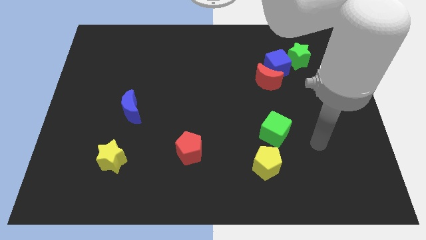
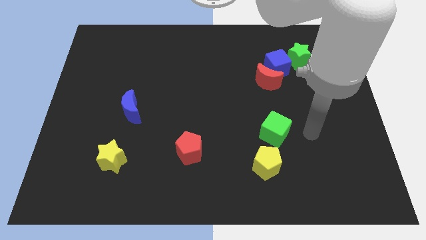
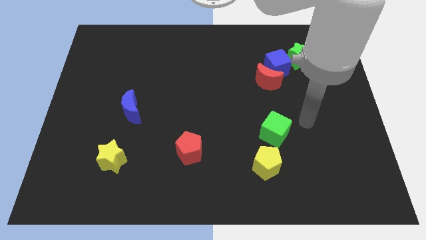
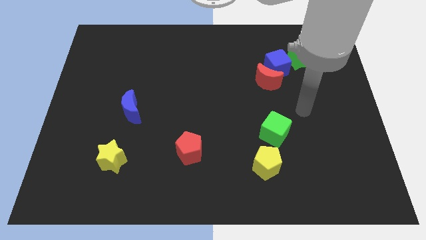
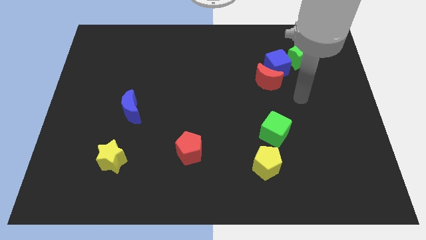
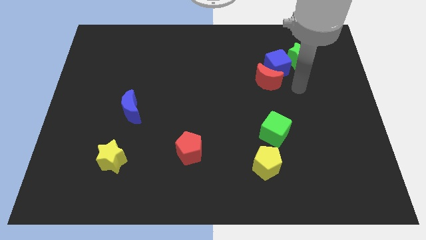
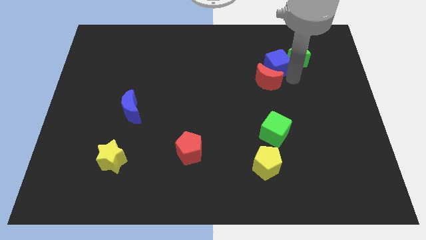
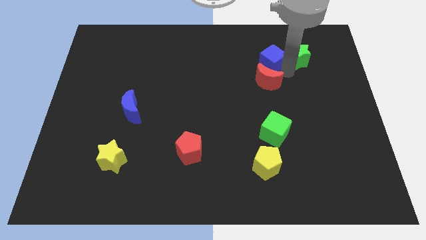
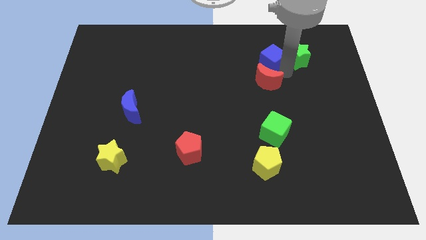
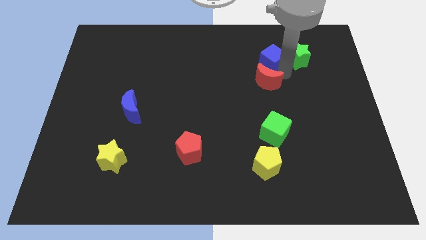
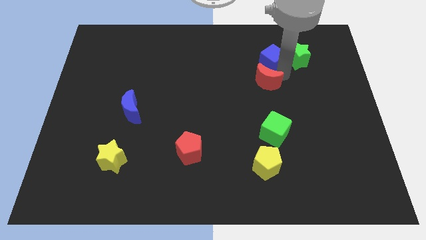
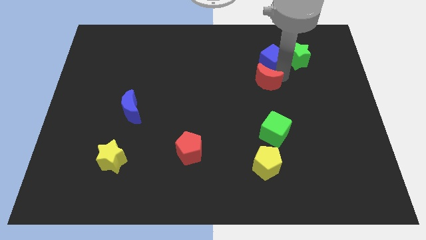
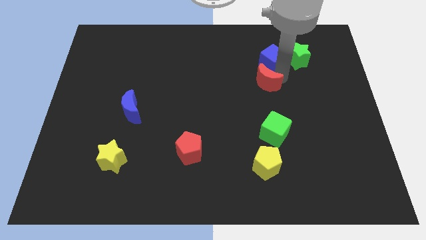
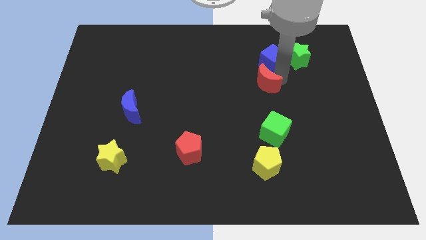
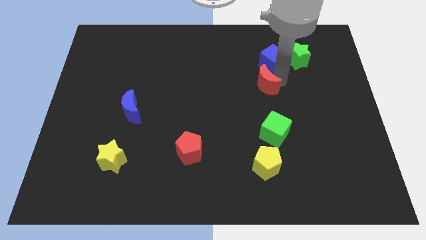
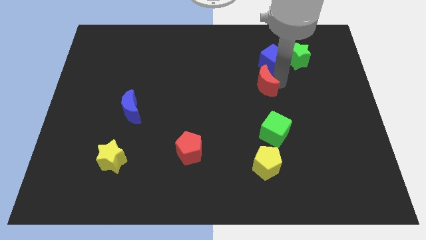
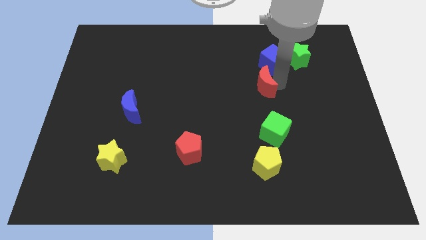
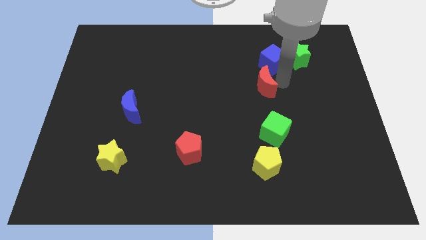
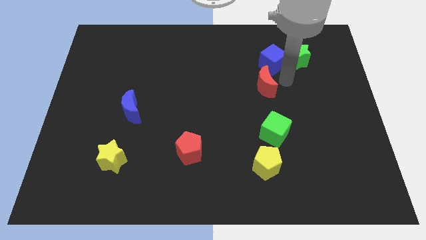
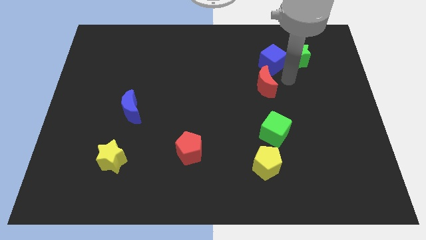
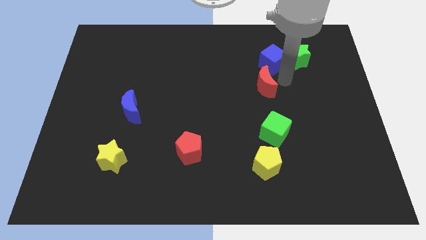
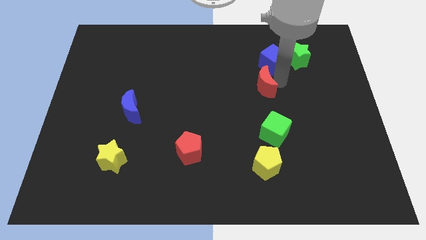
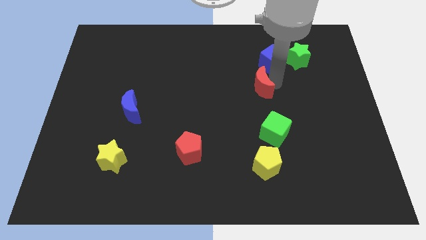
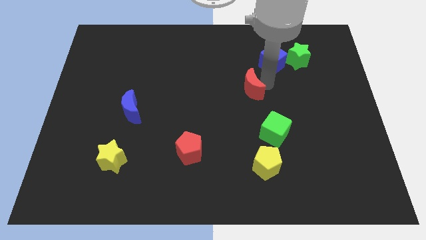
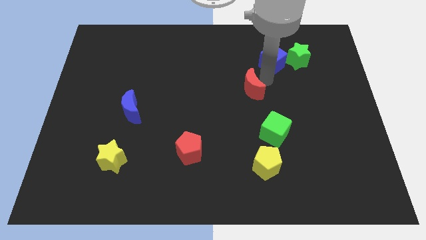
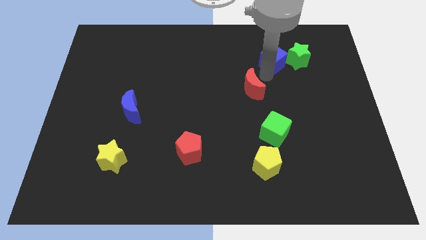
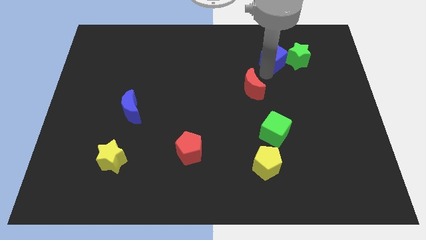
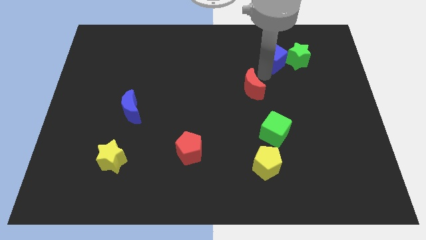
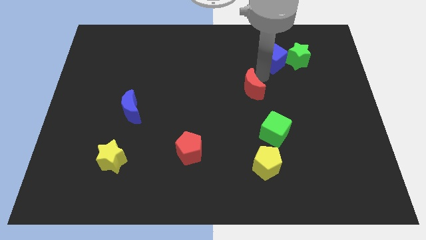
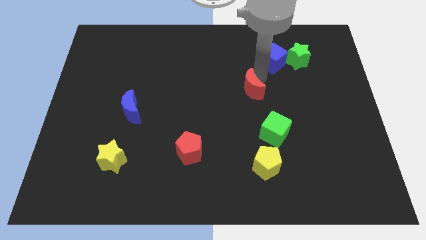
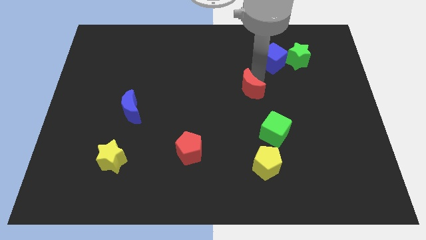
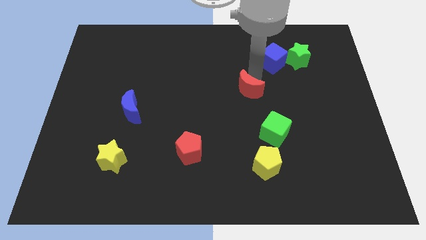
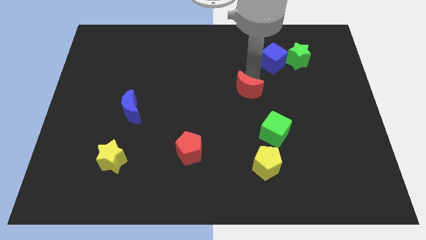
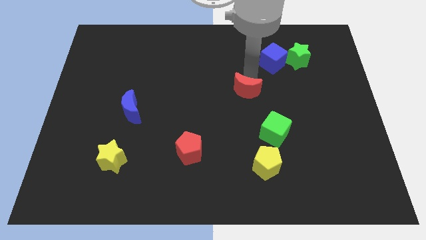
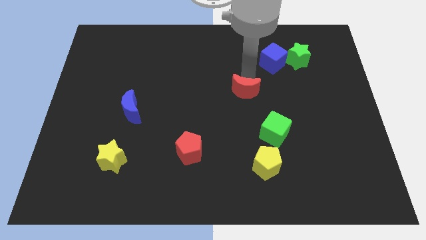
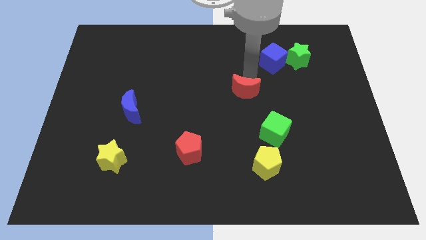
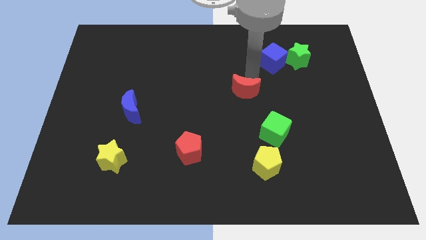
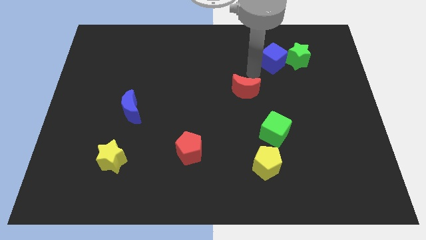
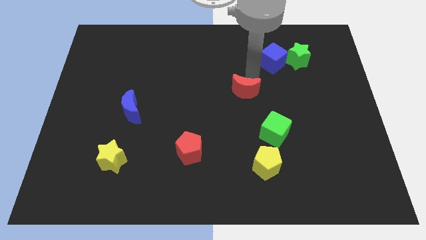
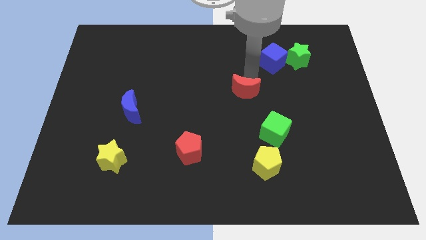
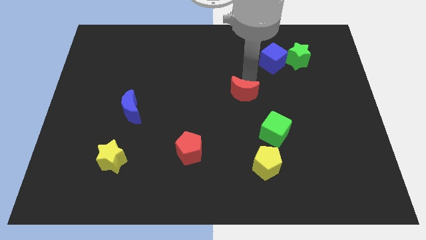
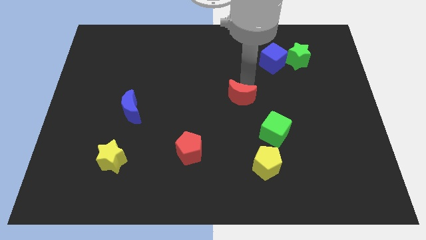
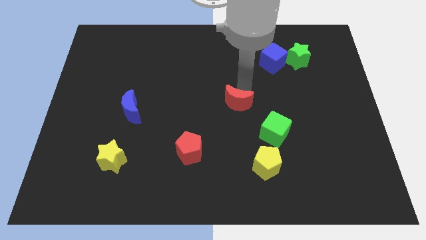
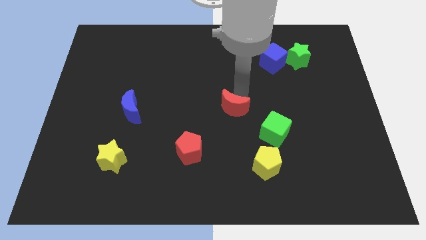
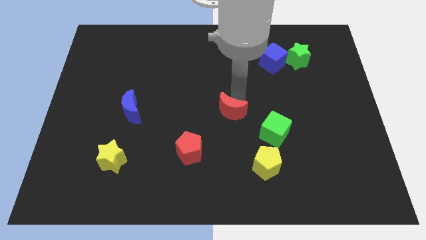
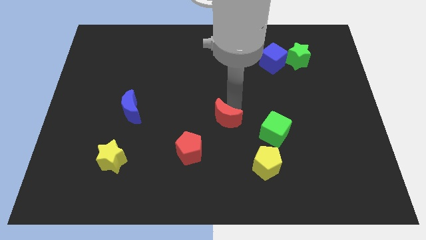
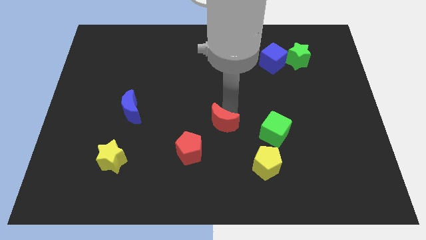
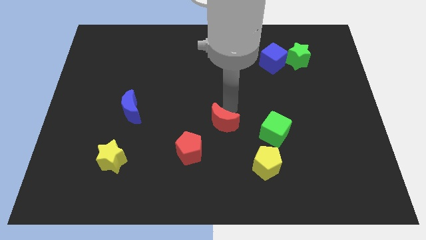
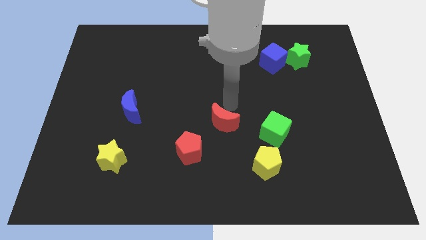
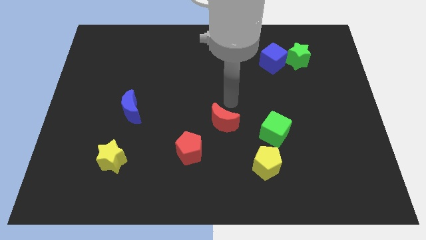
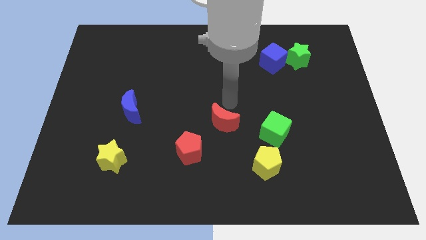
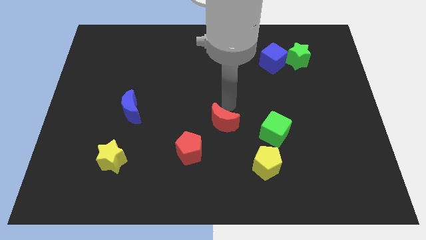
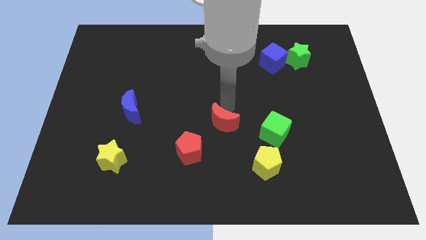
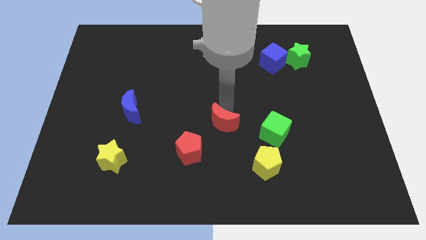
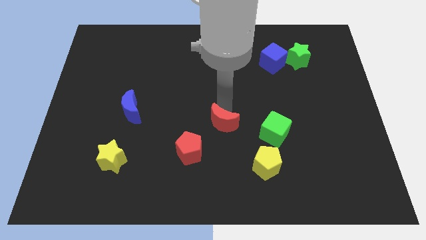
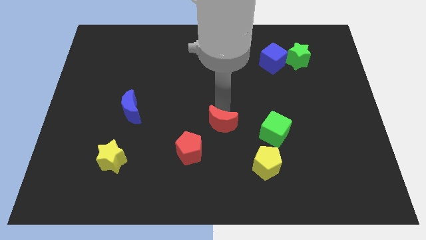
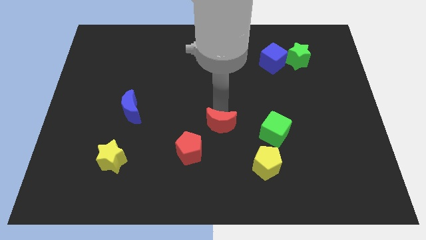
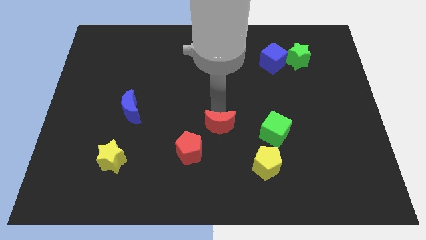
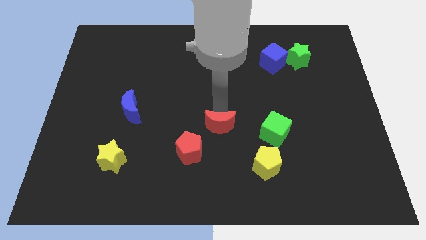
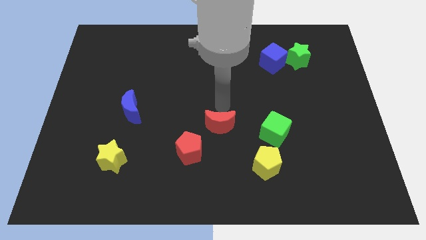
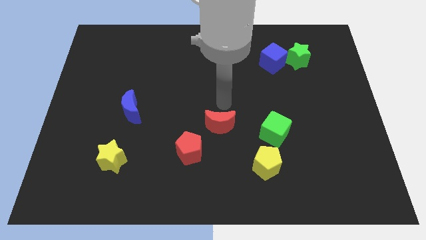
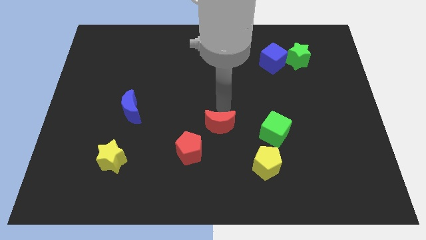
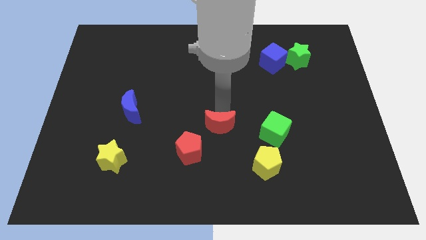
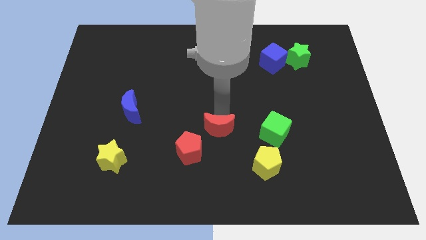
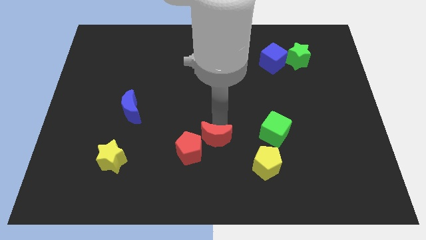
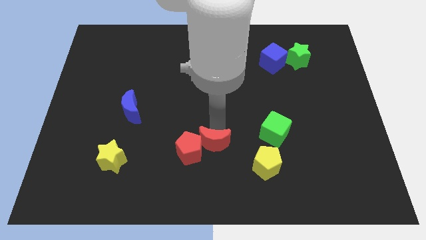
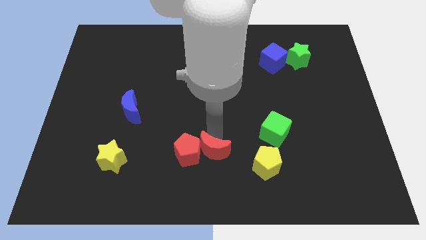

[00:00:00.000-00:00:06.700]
slide the red moon to the left side of the yellow pentagon

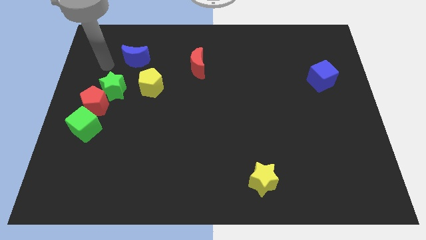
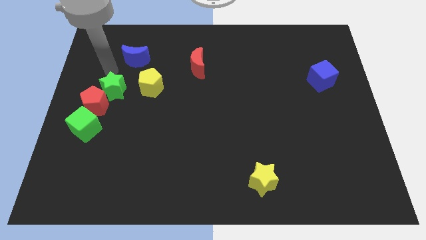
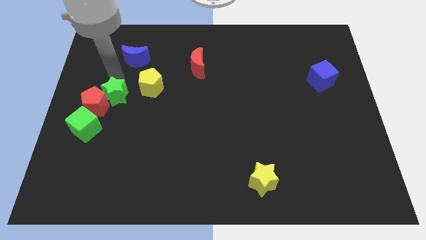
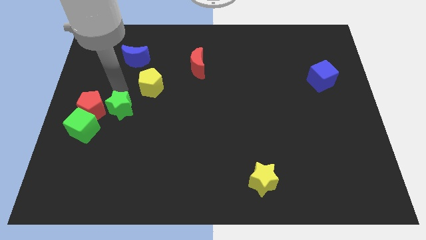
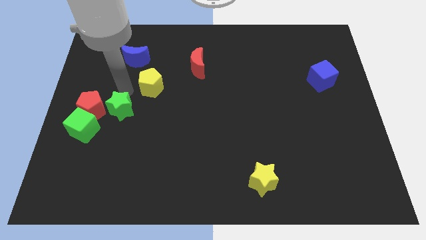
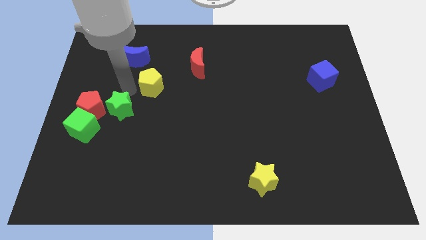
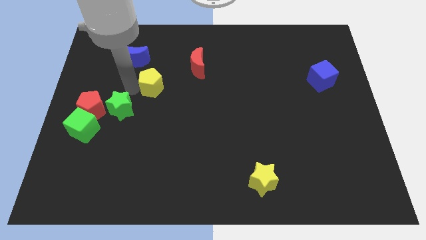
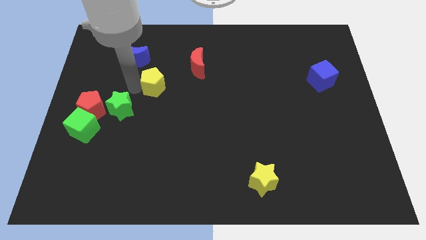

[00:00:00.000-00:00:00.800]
move the yellow pentagon to the bottom left of the red moon
